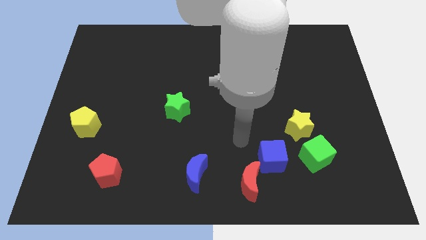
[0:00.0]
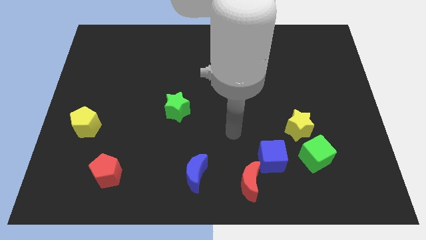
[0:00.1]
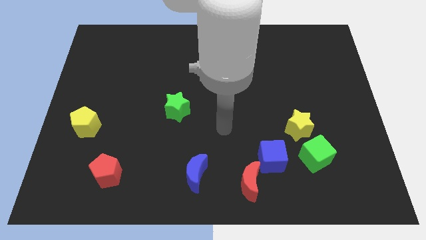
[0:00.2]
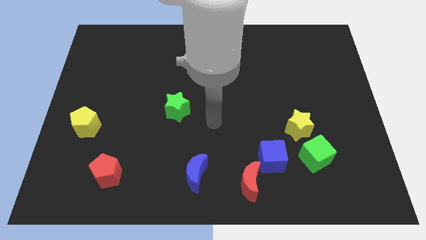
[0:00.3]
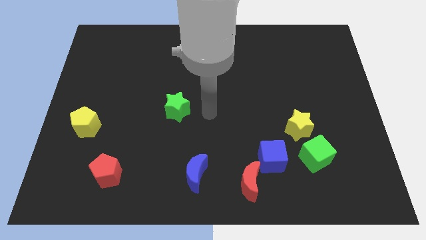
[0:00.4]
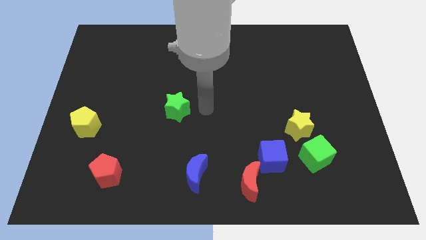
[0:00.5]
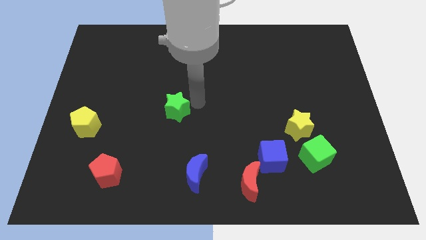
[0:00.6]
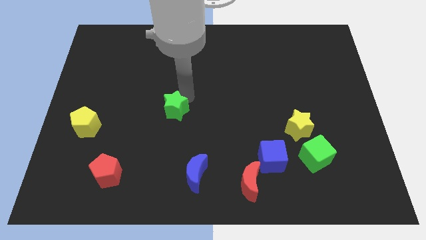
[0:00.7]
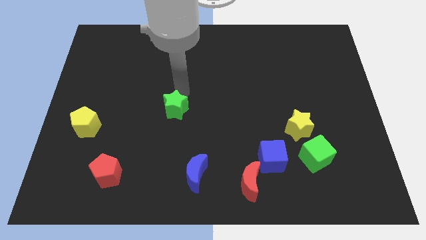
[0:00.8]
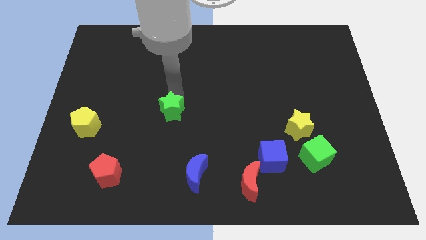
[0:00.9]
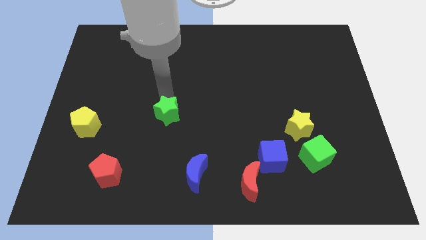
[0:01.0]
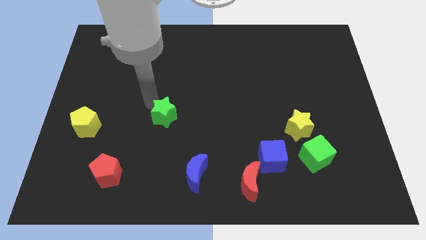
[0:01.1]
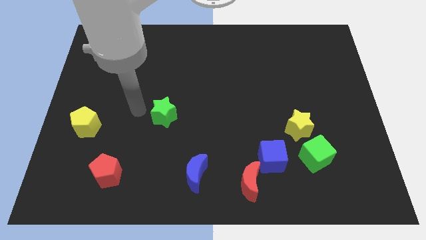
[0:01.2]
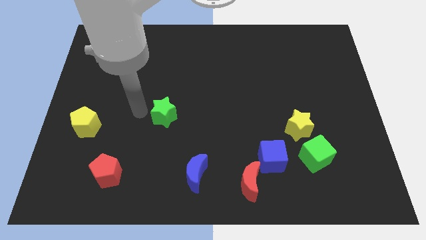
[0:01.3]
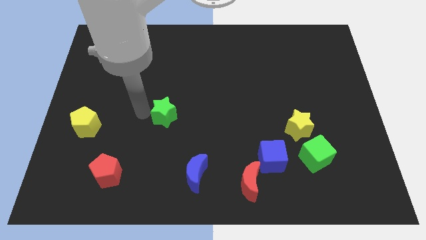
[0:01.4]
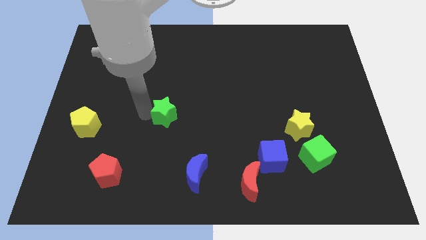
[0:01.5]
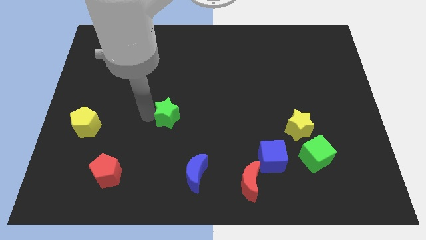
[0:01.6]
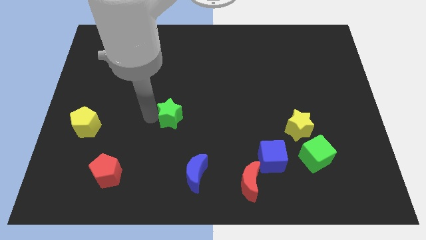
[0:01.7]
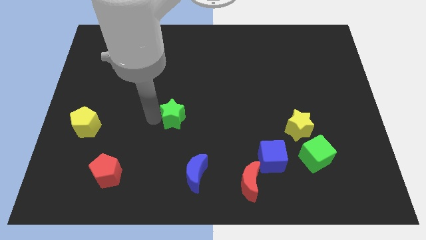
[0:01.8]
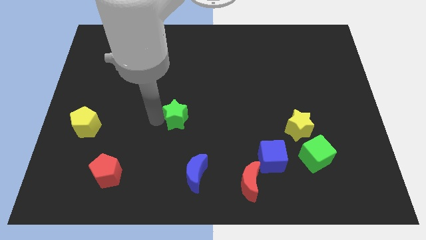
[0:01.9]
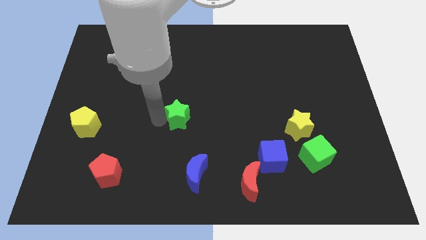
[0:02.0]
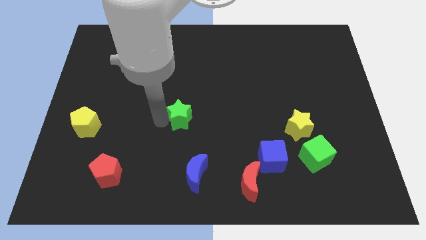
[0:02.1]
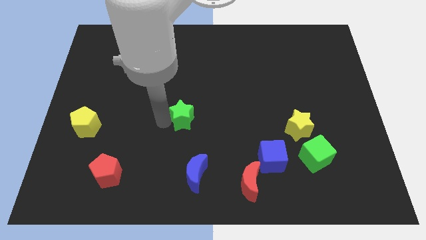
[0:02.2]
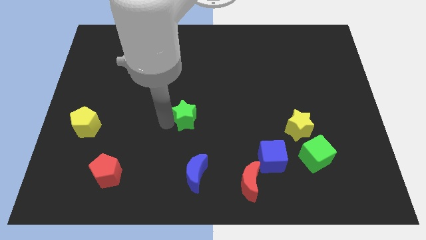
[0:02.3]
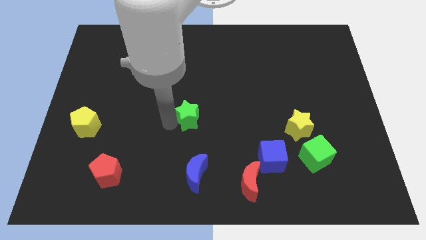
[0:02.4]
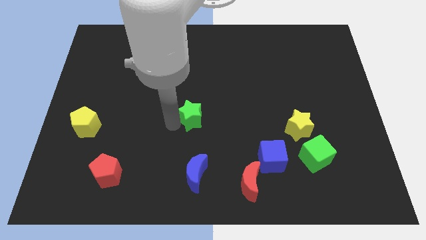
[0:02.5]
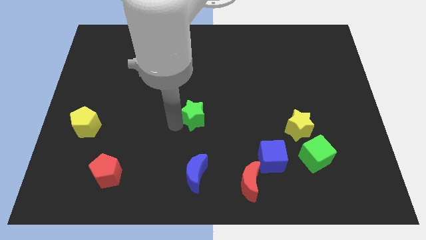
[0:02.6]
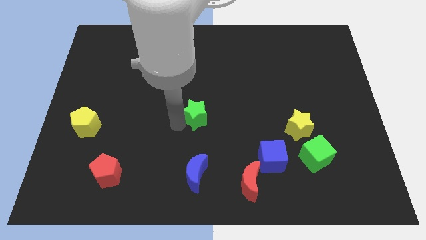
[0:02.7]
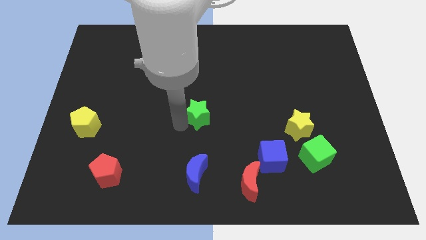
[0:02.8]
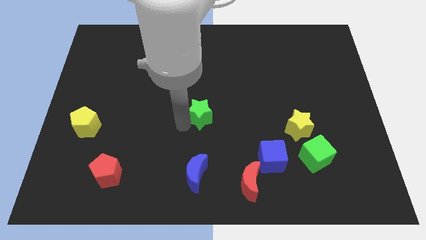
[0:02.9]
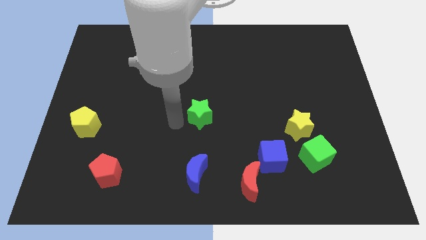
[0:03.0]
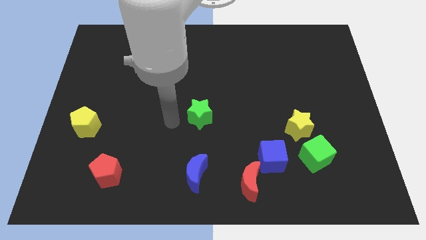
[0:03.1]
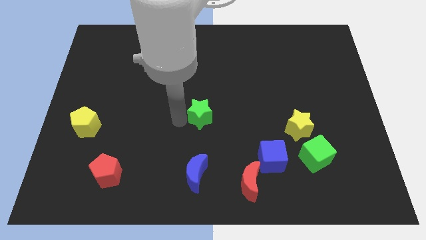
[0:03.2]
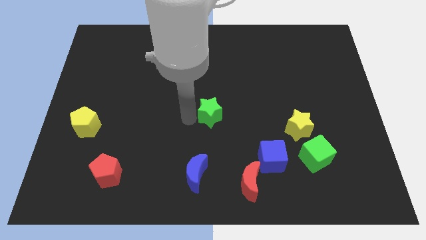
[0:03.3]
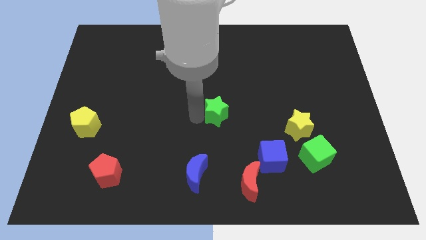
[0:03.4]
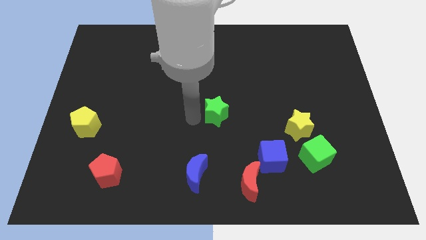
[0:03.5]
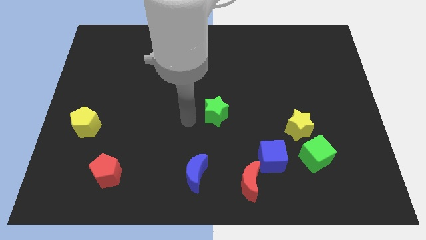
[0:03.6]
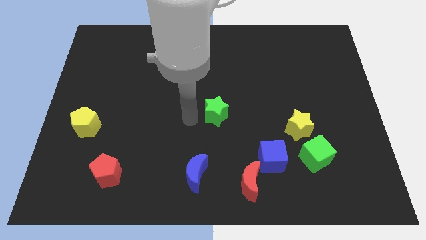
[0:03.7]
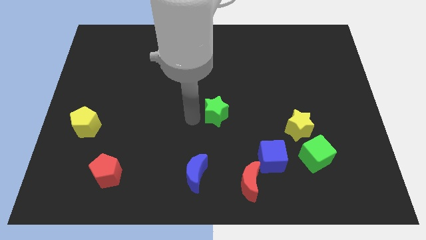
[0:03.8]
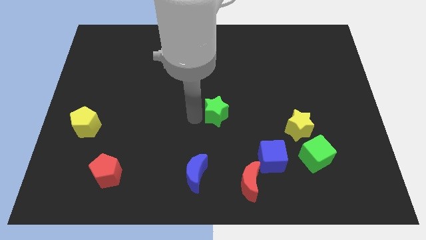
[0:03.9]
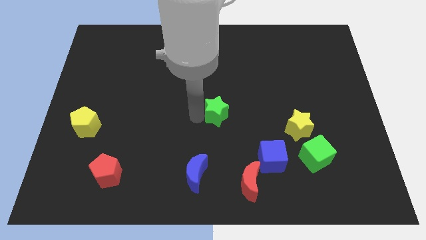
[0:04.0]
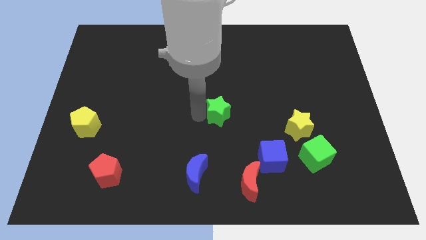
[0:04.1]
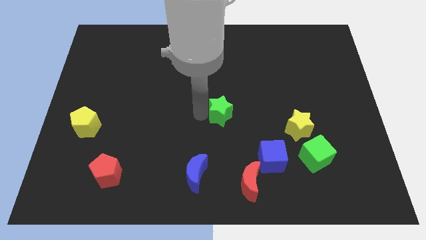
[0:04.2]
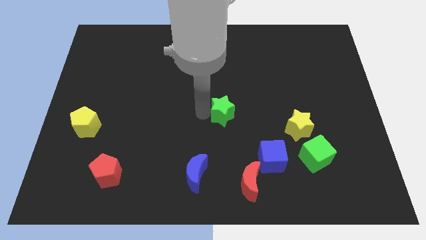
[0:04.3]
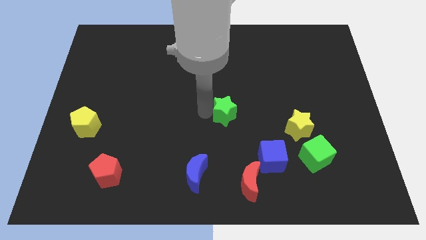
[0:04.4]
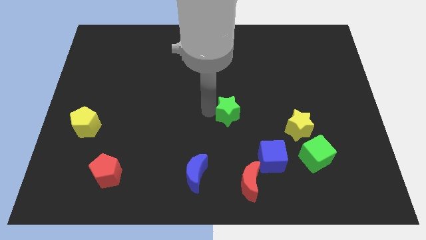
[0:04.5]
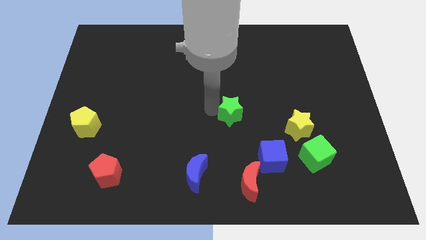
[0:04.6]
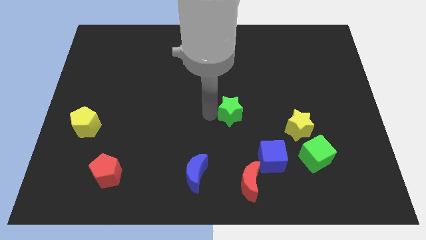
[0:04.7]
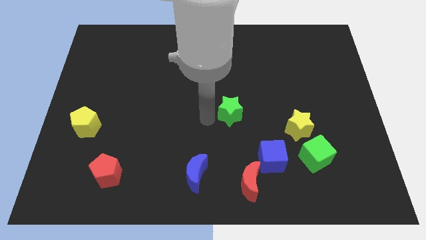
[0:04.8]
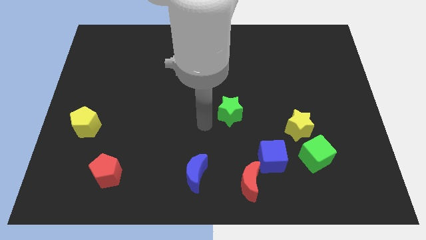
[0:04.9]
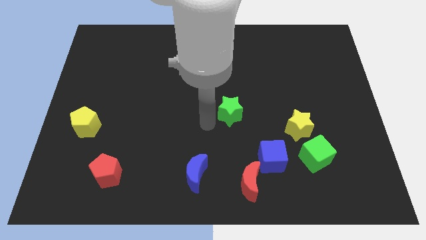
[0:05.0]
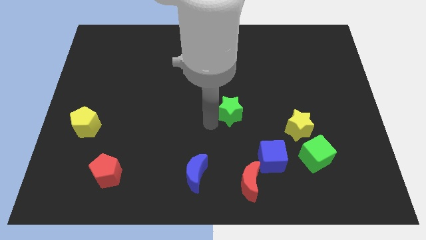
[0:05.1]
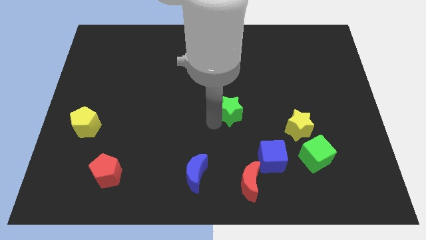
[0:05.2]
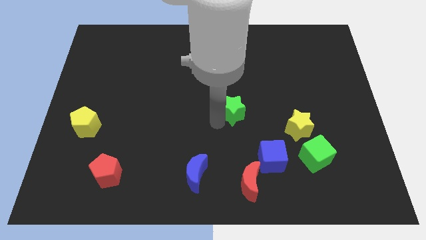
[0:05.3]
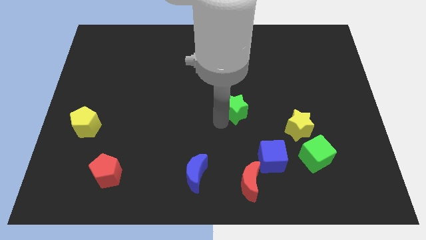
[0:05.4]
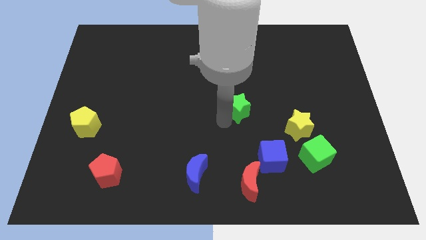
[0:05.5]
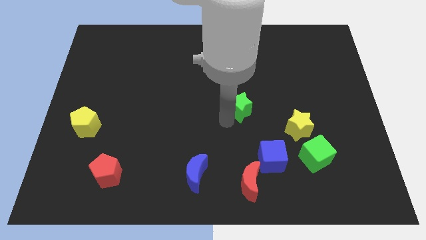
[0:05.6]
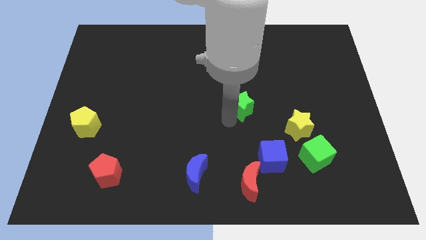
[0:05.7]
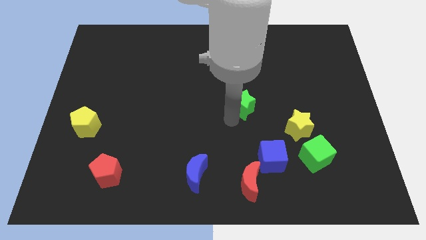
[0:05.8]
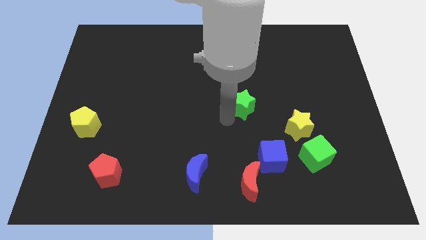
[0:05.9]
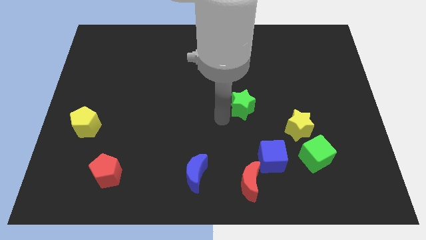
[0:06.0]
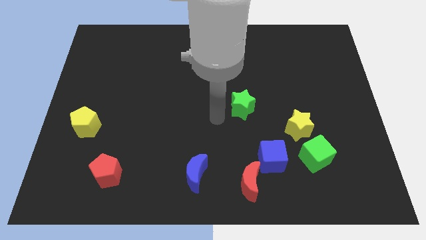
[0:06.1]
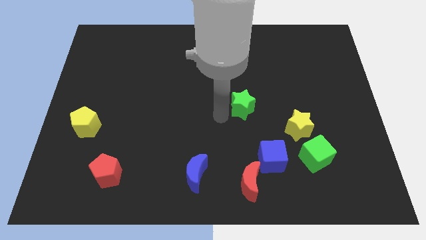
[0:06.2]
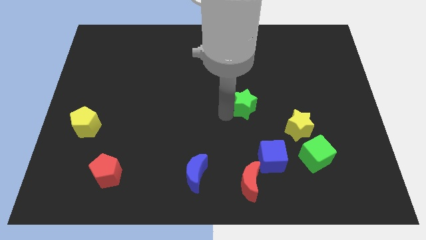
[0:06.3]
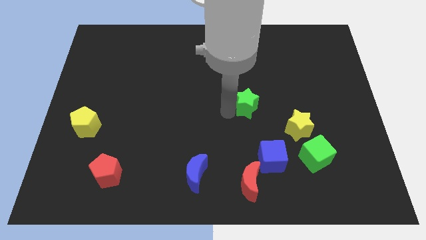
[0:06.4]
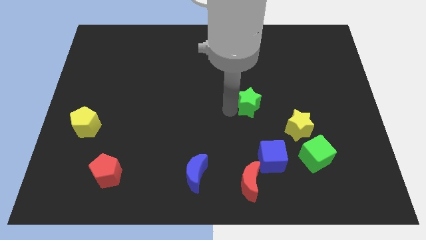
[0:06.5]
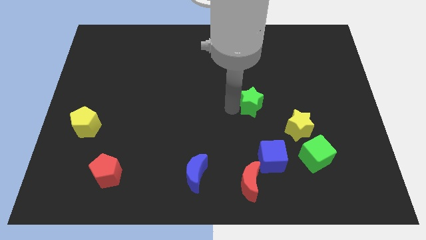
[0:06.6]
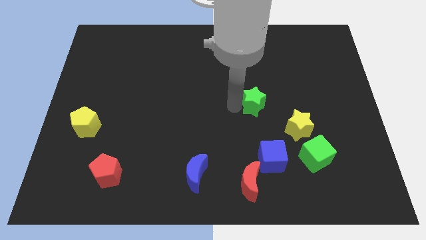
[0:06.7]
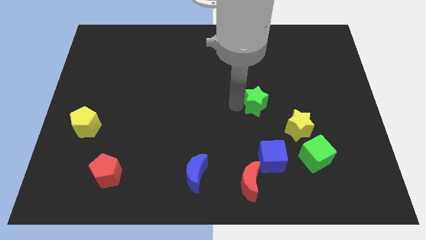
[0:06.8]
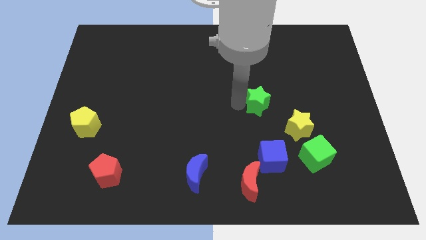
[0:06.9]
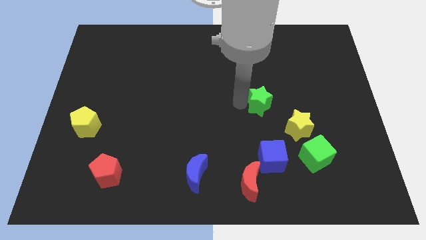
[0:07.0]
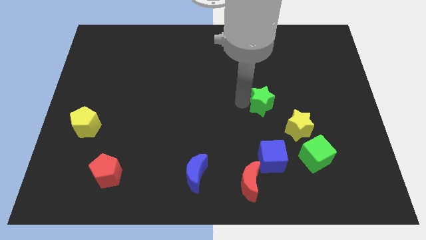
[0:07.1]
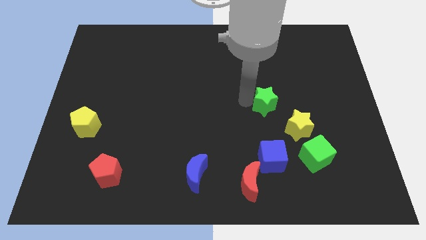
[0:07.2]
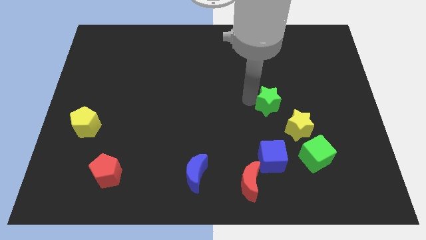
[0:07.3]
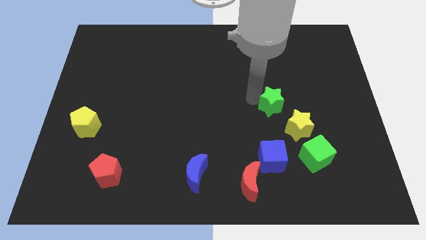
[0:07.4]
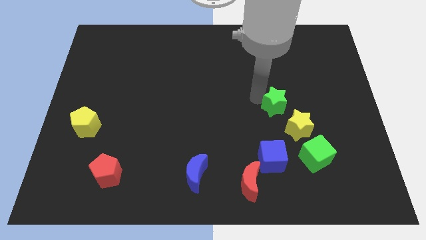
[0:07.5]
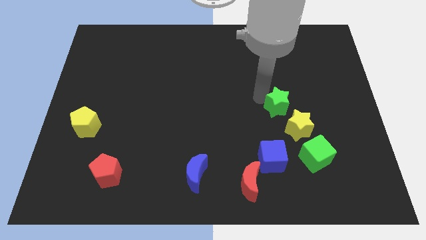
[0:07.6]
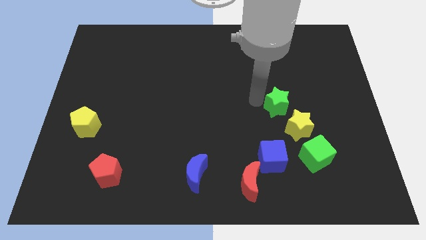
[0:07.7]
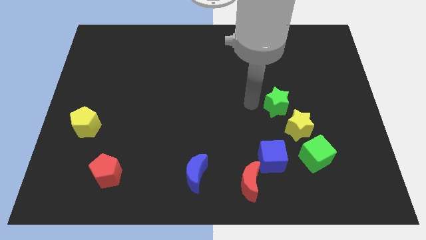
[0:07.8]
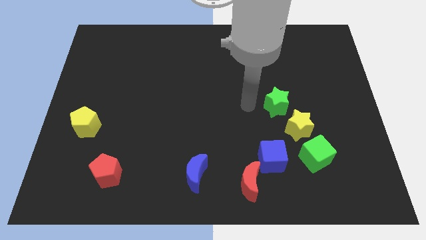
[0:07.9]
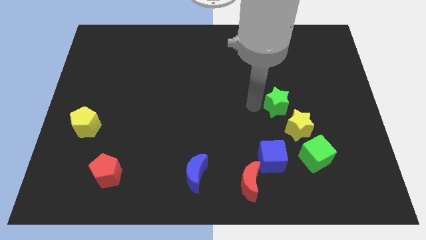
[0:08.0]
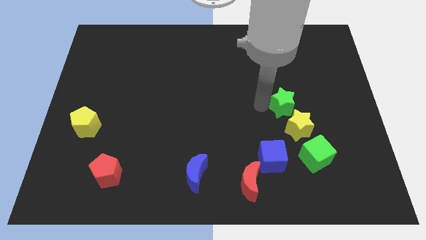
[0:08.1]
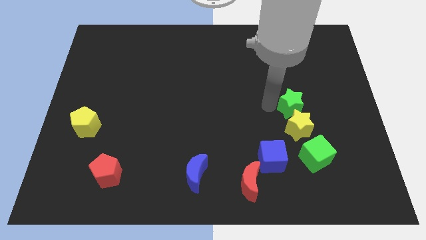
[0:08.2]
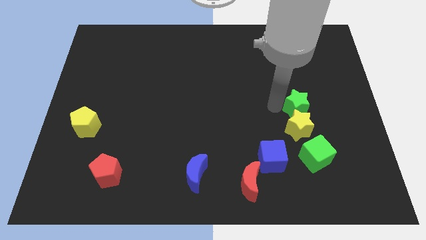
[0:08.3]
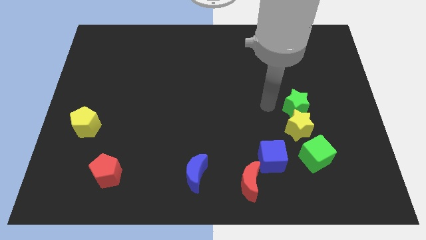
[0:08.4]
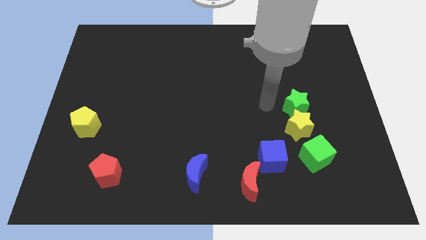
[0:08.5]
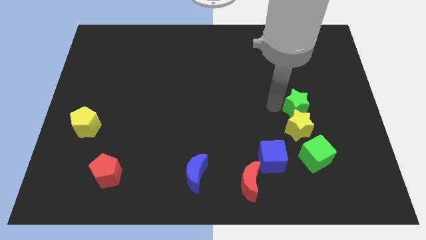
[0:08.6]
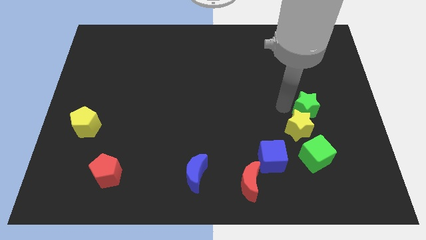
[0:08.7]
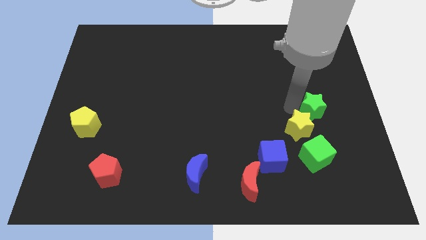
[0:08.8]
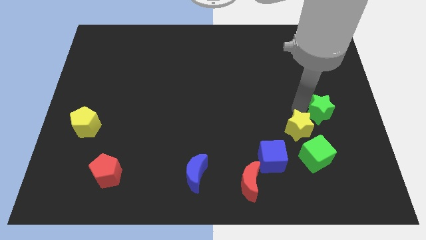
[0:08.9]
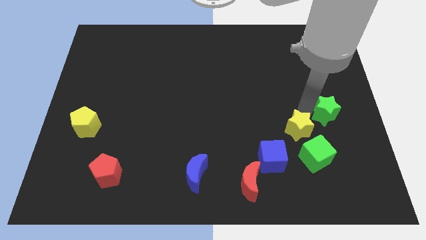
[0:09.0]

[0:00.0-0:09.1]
slide the green star to the right side of the board
